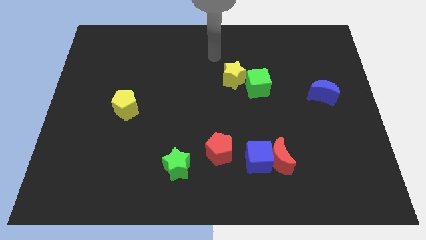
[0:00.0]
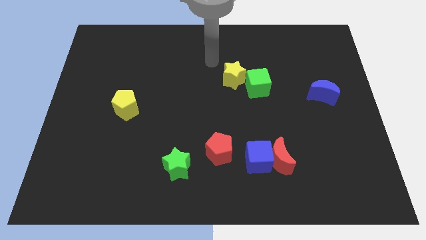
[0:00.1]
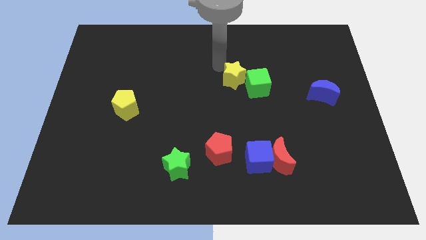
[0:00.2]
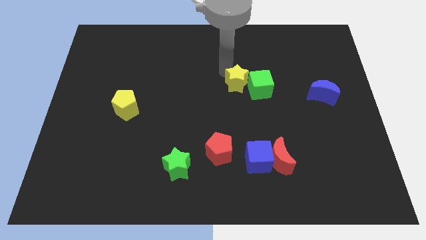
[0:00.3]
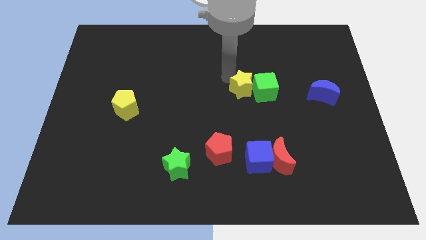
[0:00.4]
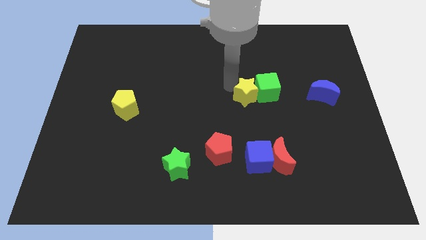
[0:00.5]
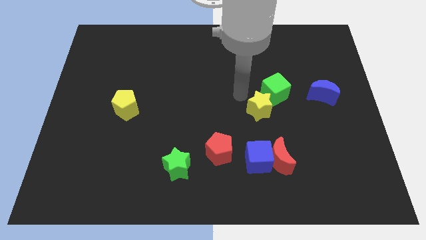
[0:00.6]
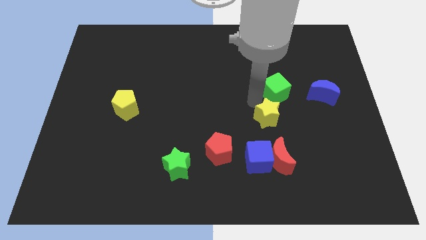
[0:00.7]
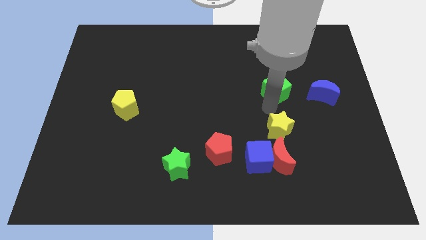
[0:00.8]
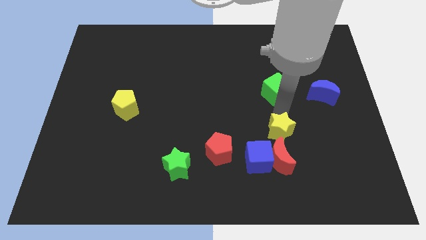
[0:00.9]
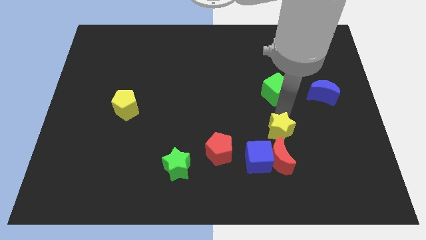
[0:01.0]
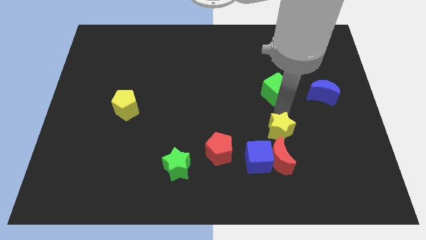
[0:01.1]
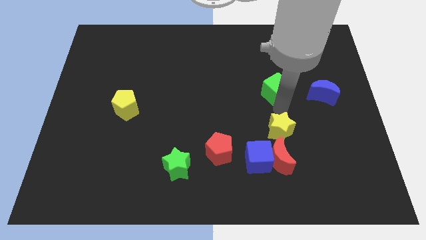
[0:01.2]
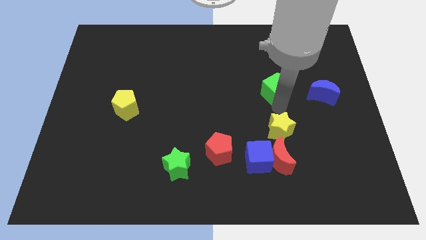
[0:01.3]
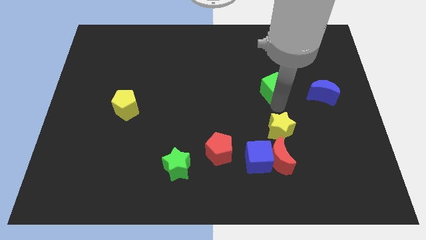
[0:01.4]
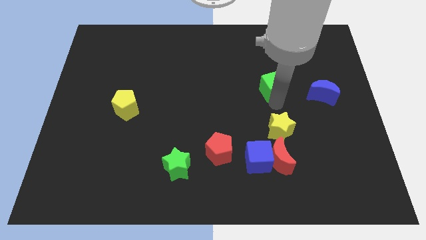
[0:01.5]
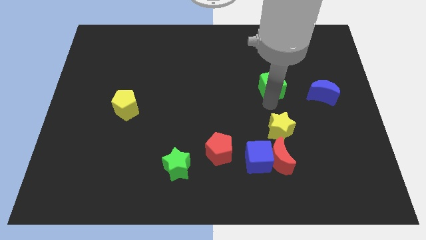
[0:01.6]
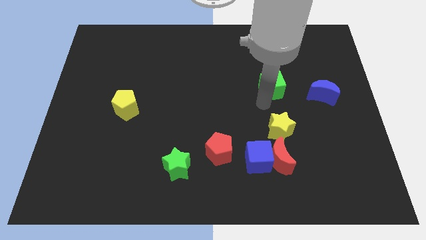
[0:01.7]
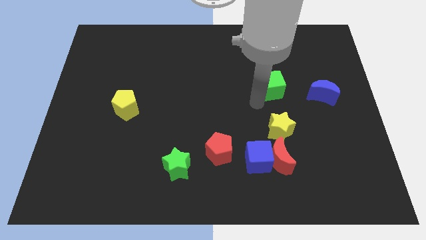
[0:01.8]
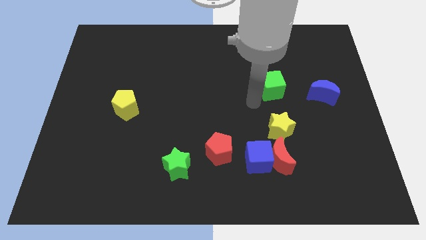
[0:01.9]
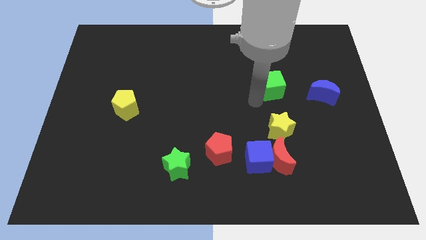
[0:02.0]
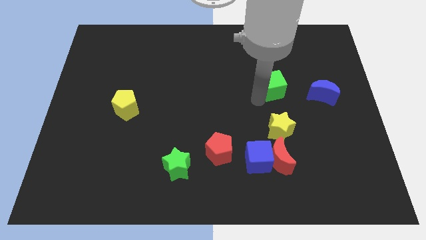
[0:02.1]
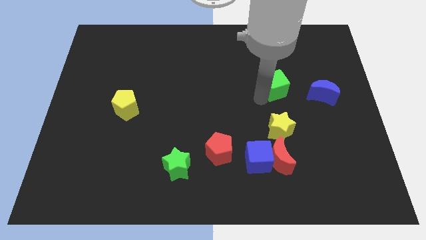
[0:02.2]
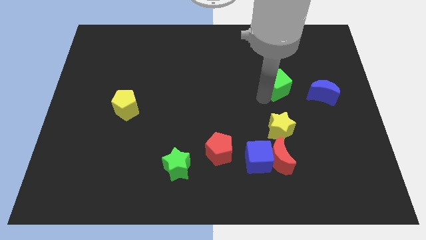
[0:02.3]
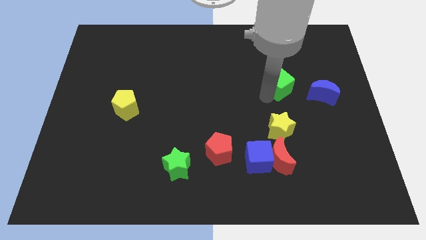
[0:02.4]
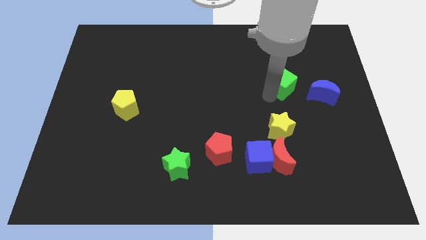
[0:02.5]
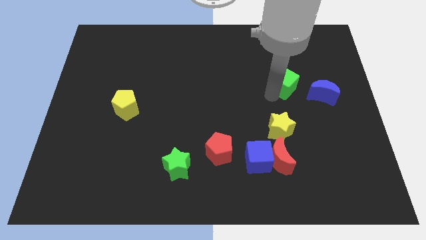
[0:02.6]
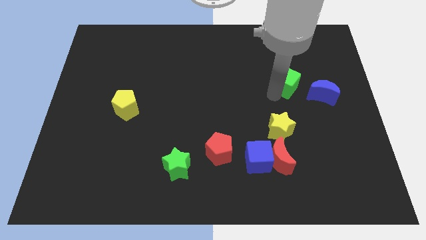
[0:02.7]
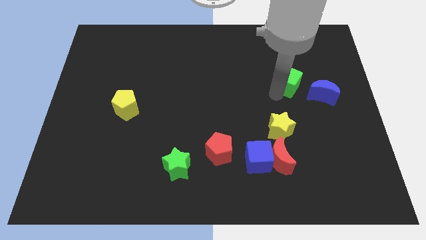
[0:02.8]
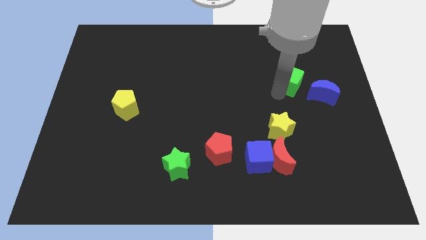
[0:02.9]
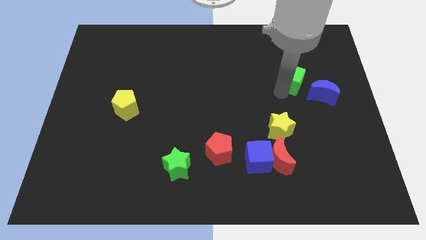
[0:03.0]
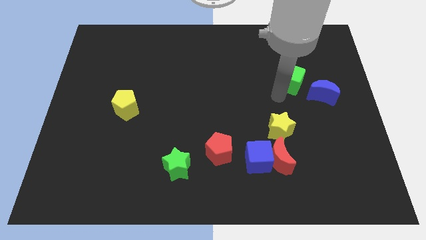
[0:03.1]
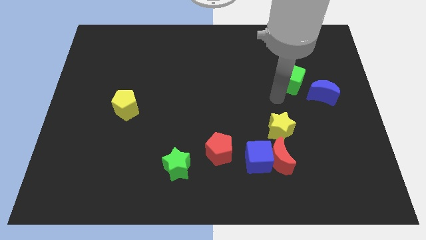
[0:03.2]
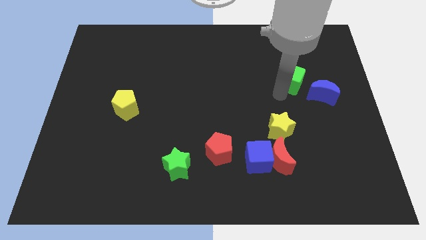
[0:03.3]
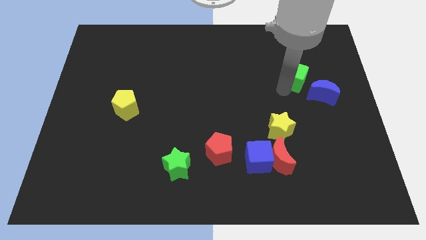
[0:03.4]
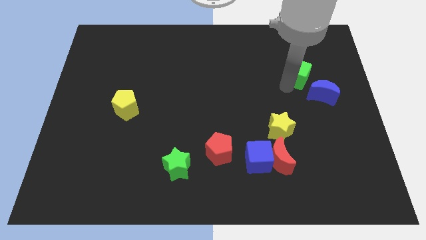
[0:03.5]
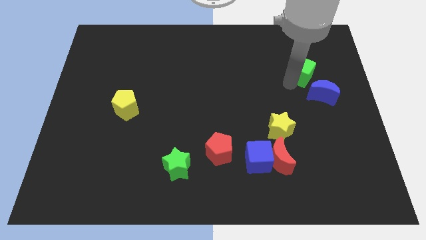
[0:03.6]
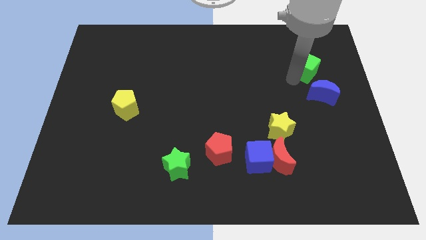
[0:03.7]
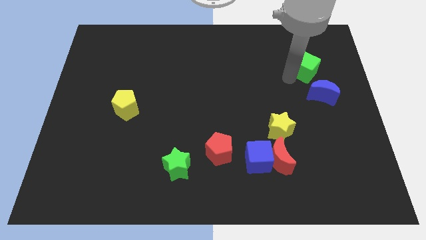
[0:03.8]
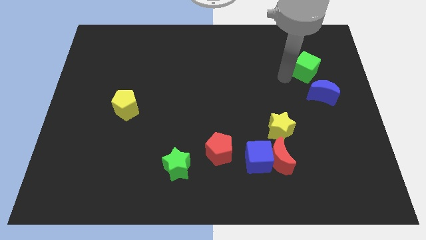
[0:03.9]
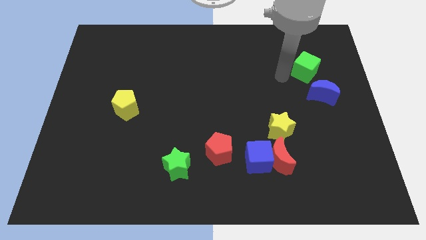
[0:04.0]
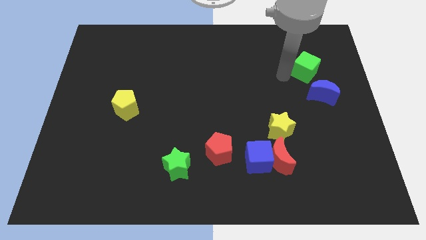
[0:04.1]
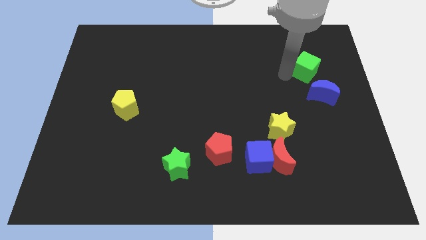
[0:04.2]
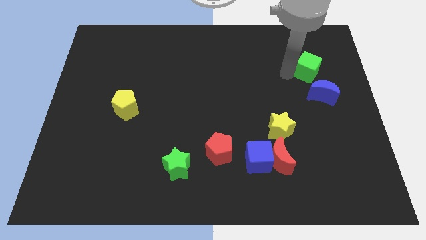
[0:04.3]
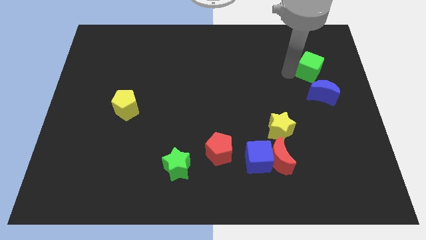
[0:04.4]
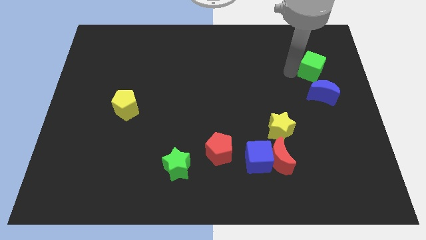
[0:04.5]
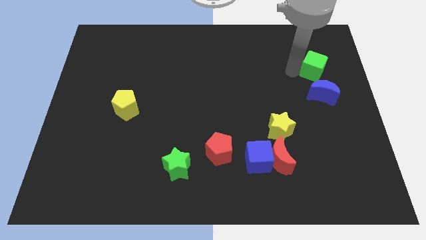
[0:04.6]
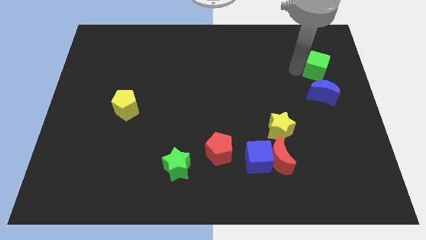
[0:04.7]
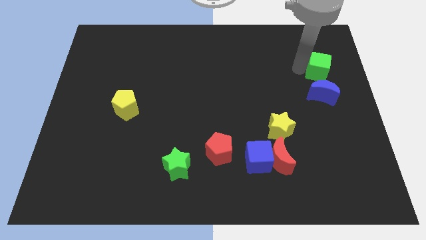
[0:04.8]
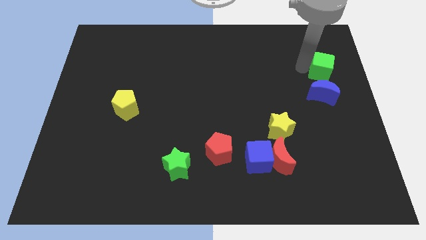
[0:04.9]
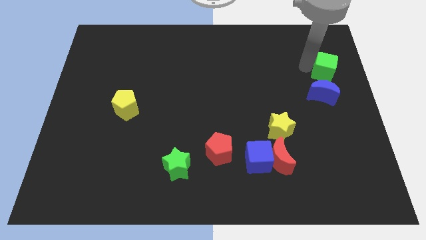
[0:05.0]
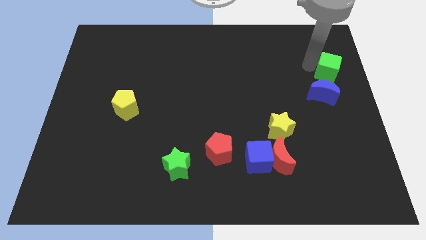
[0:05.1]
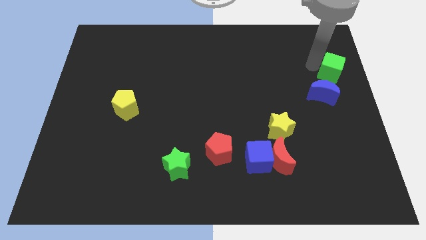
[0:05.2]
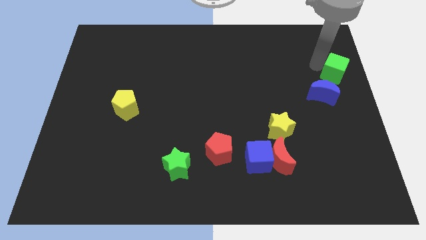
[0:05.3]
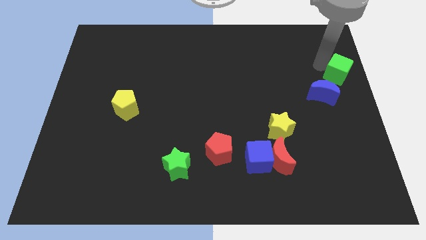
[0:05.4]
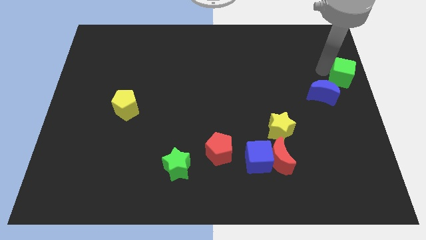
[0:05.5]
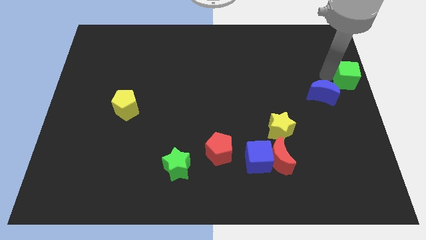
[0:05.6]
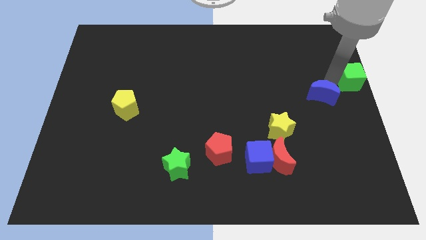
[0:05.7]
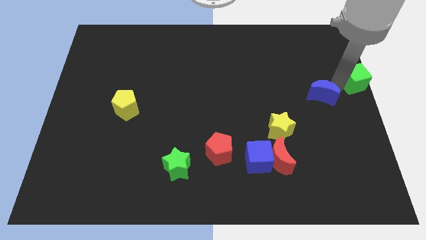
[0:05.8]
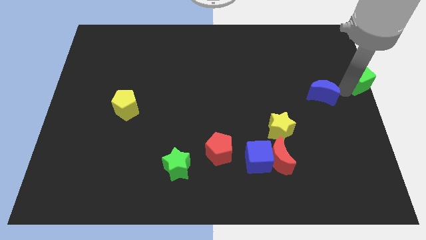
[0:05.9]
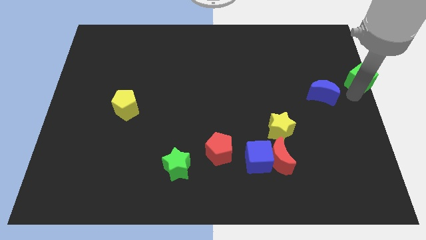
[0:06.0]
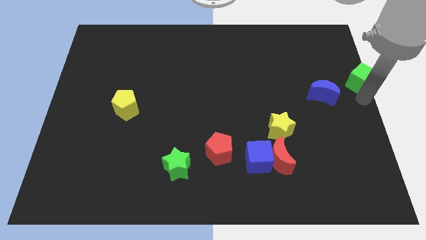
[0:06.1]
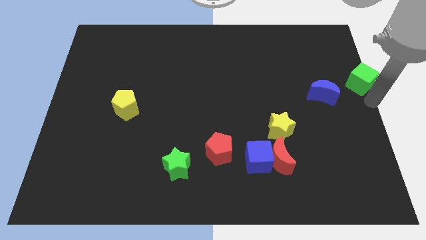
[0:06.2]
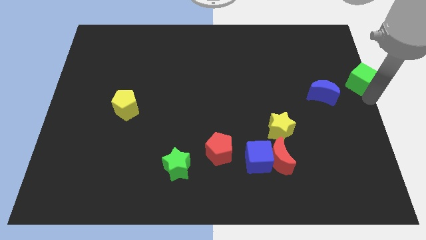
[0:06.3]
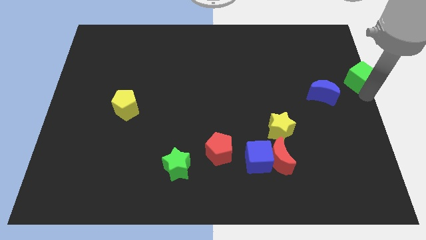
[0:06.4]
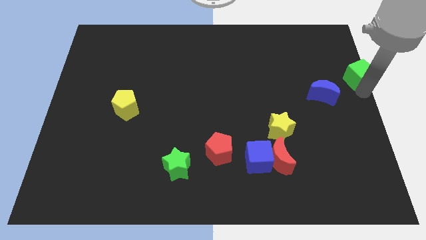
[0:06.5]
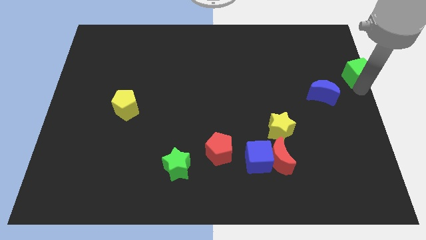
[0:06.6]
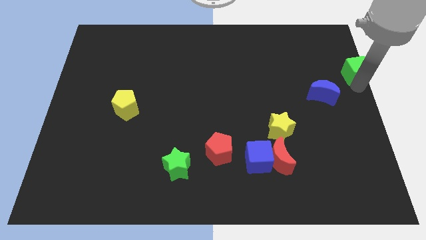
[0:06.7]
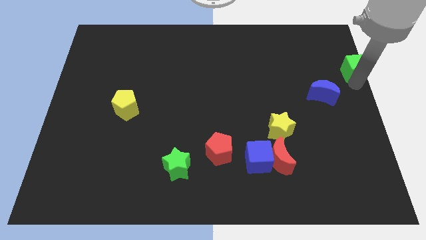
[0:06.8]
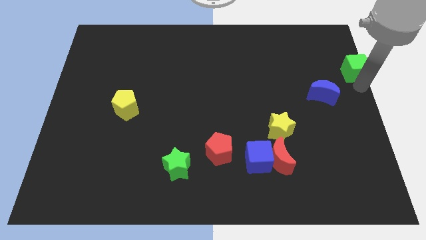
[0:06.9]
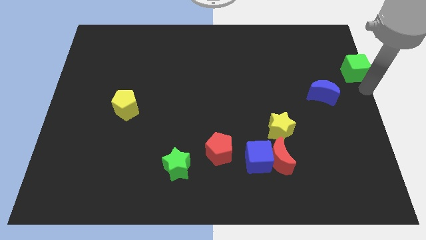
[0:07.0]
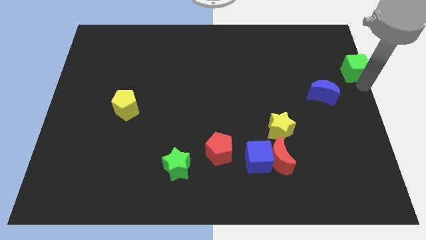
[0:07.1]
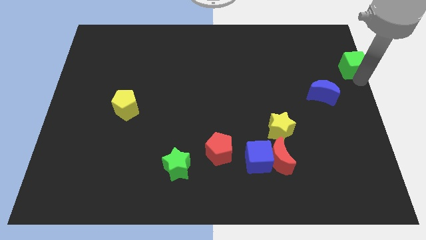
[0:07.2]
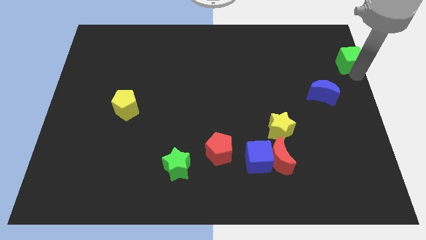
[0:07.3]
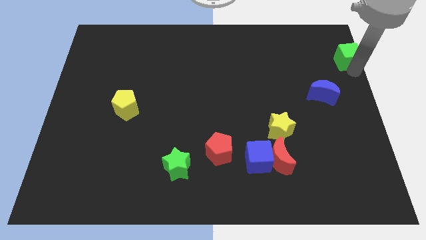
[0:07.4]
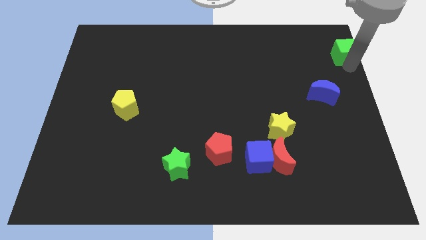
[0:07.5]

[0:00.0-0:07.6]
move the green cube to the top right of the board
